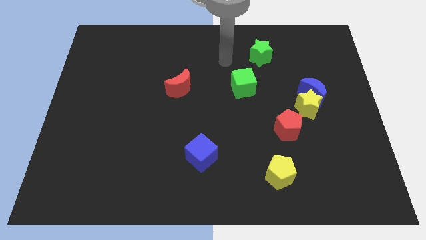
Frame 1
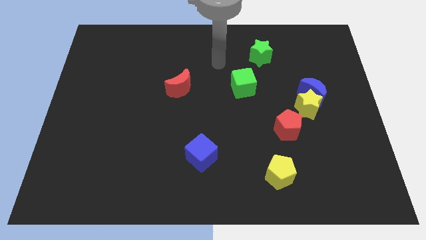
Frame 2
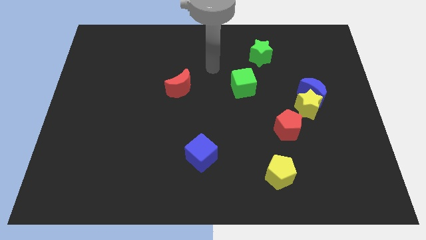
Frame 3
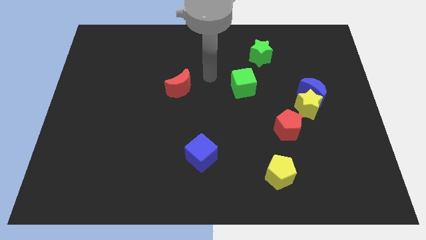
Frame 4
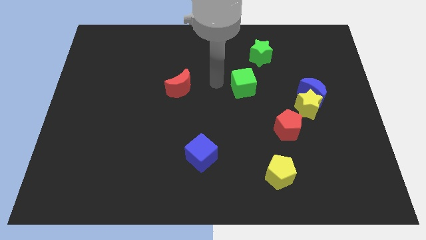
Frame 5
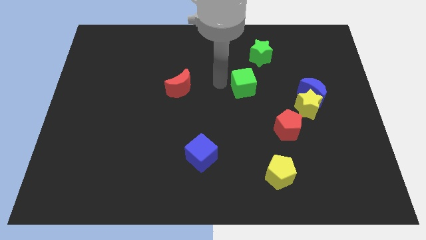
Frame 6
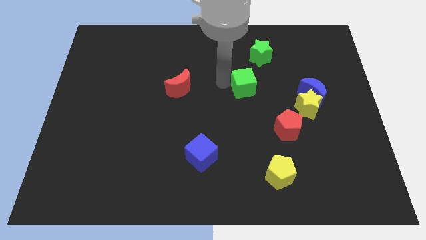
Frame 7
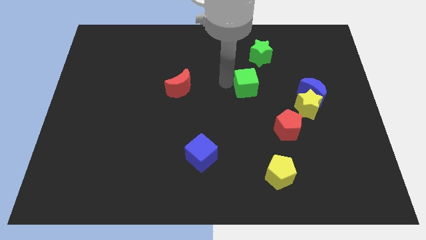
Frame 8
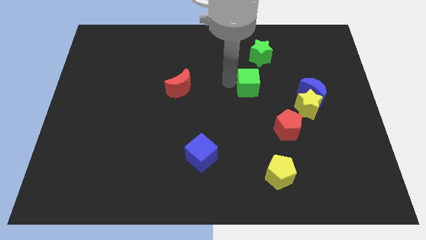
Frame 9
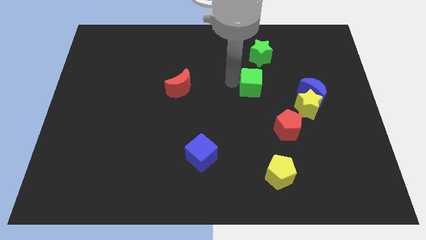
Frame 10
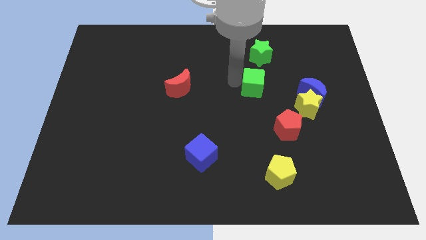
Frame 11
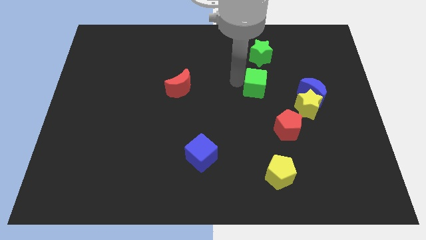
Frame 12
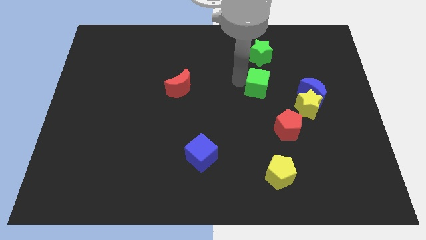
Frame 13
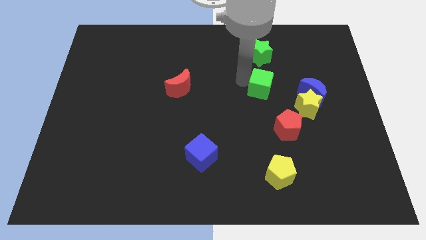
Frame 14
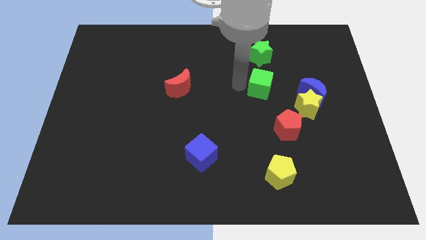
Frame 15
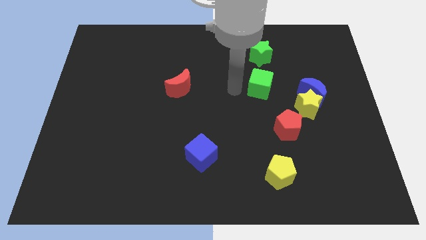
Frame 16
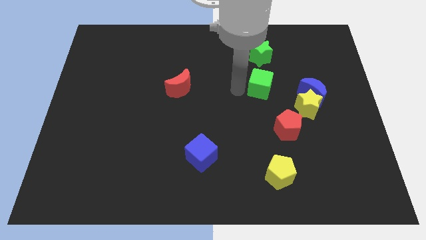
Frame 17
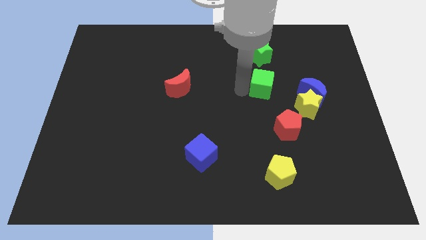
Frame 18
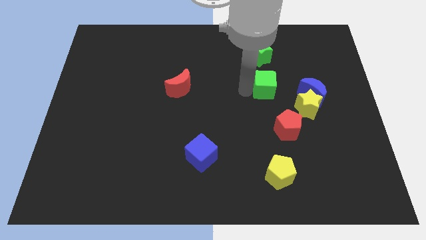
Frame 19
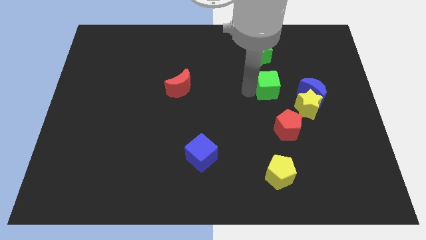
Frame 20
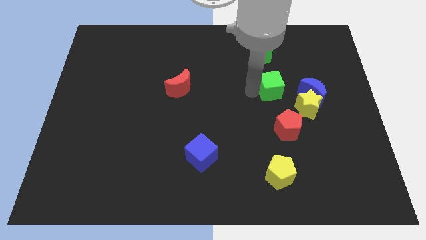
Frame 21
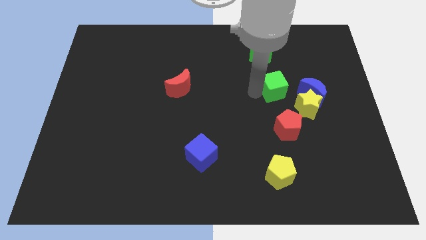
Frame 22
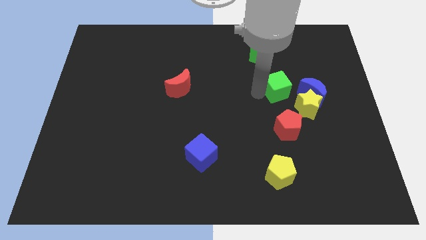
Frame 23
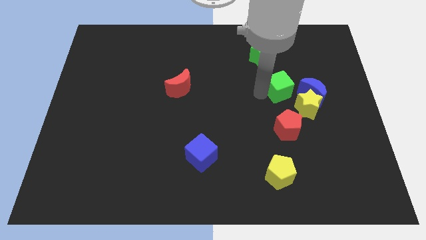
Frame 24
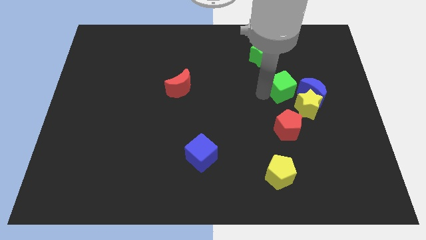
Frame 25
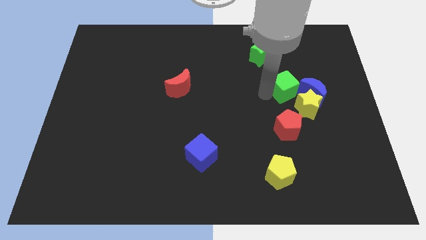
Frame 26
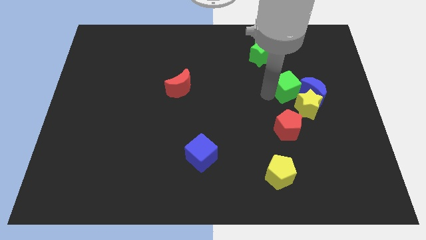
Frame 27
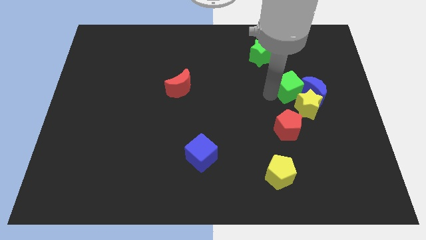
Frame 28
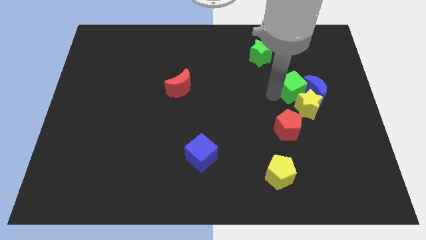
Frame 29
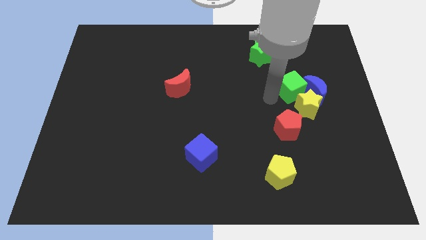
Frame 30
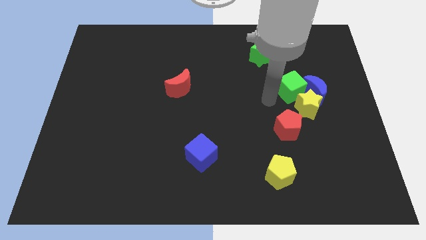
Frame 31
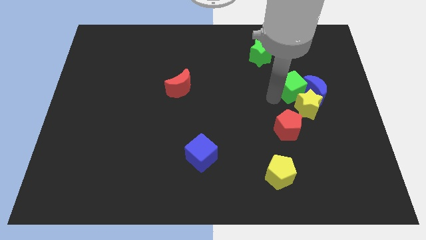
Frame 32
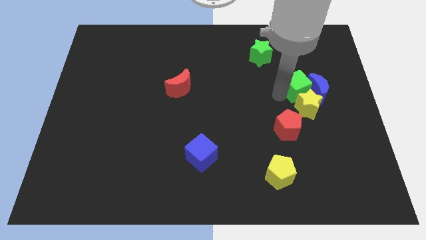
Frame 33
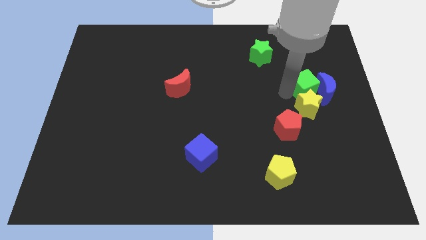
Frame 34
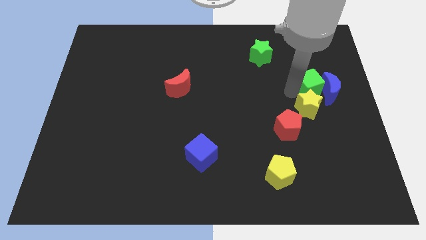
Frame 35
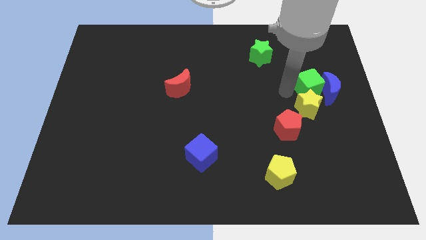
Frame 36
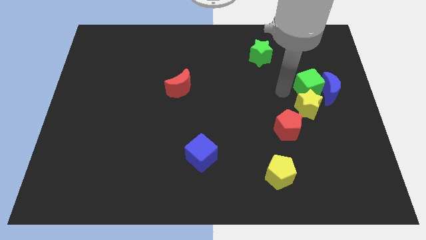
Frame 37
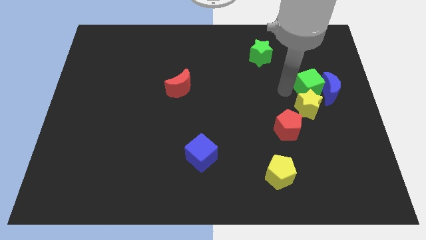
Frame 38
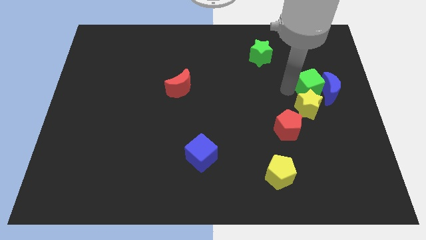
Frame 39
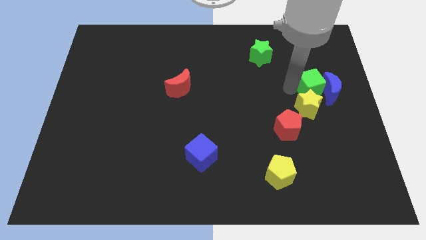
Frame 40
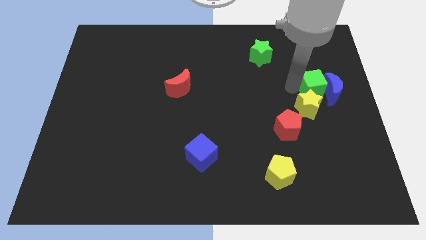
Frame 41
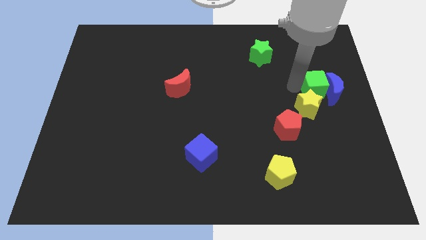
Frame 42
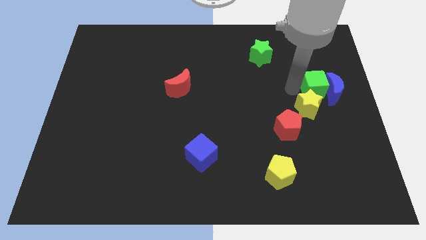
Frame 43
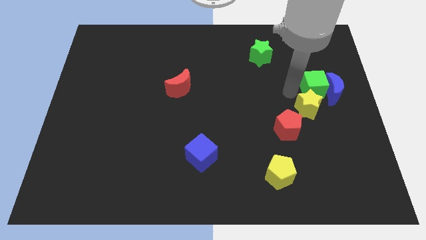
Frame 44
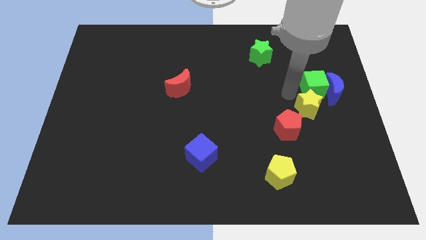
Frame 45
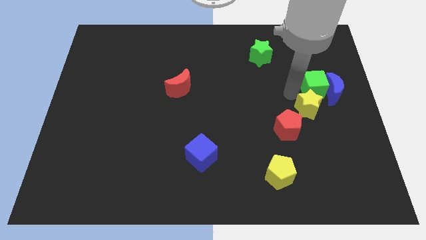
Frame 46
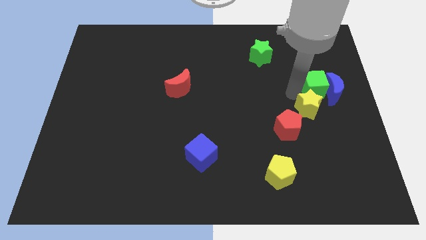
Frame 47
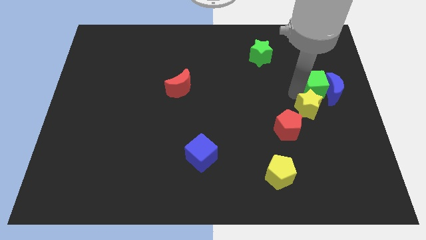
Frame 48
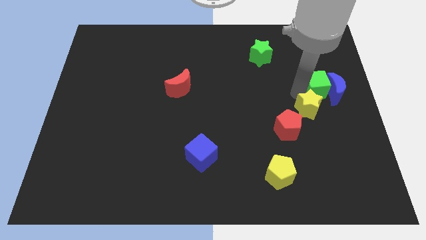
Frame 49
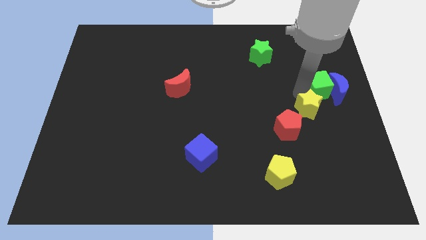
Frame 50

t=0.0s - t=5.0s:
slide the green cube to the center right

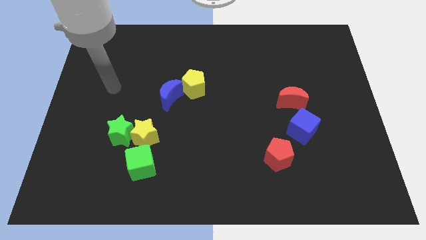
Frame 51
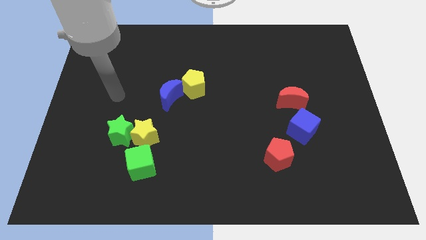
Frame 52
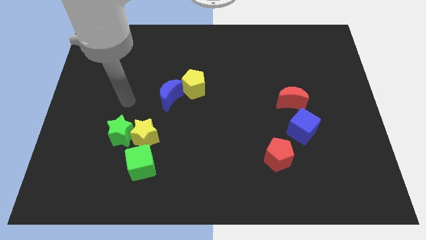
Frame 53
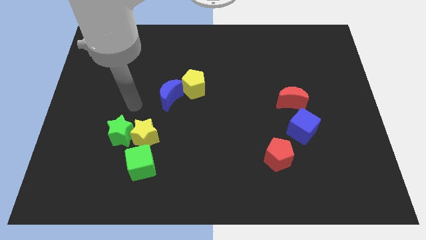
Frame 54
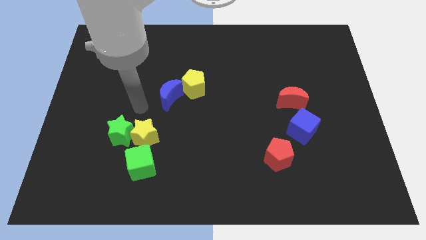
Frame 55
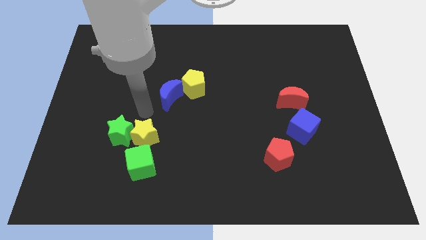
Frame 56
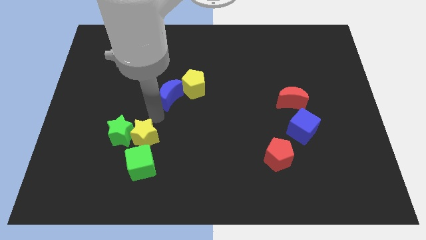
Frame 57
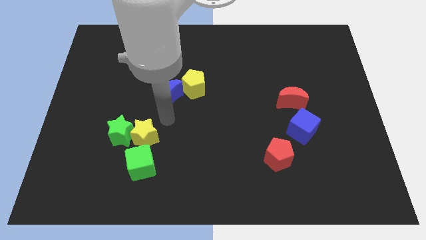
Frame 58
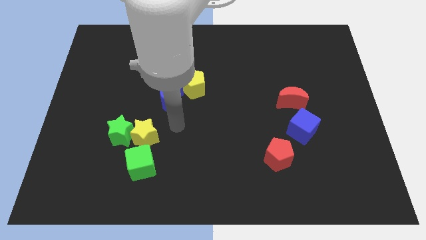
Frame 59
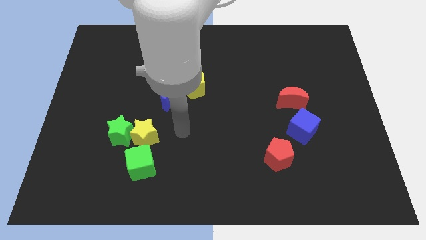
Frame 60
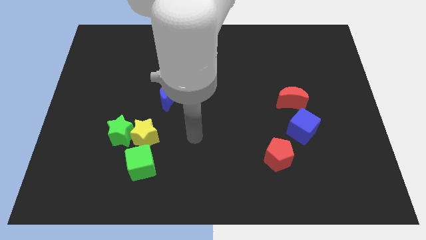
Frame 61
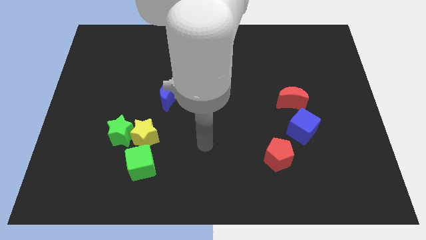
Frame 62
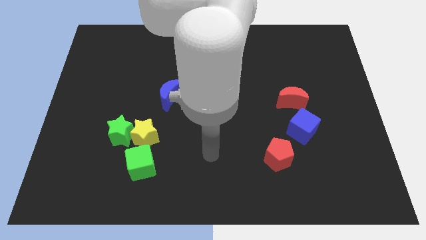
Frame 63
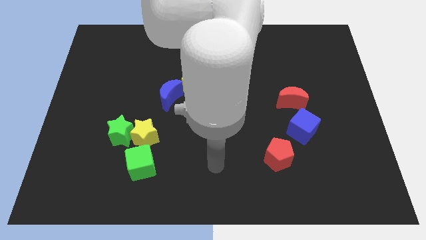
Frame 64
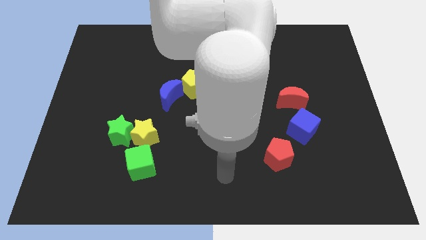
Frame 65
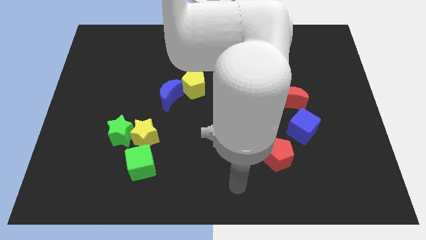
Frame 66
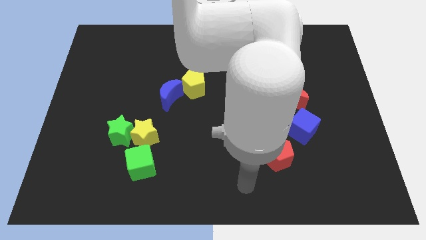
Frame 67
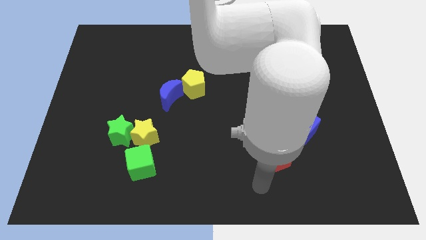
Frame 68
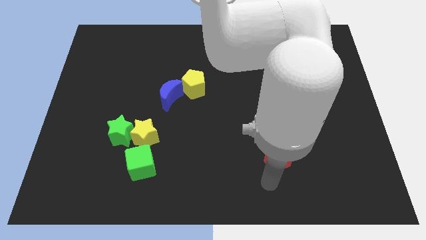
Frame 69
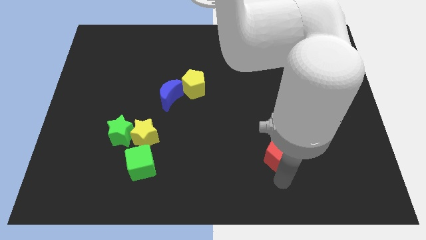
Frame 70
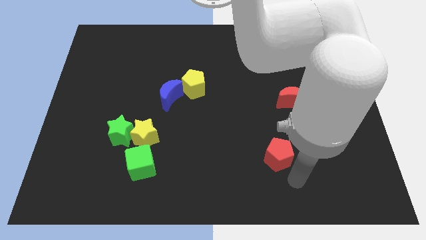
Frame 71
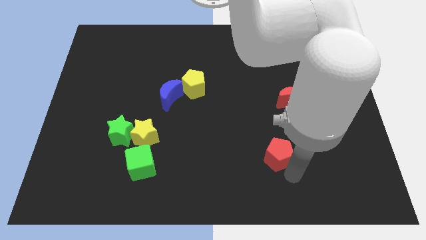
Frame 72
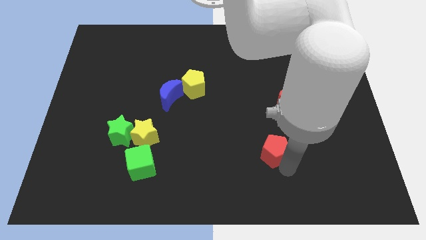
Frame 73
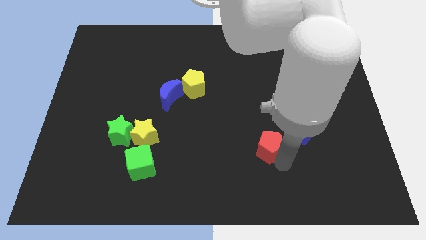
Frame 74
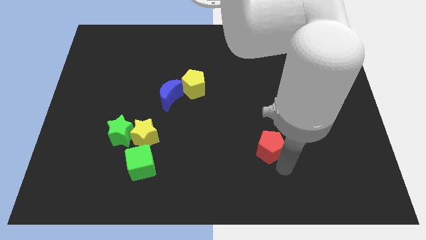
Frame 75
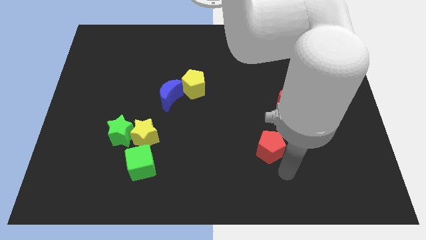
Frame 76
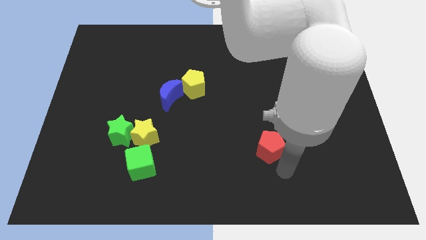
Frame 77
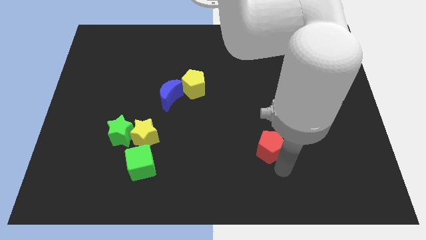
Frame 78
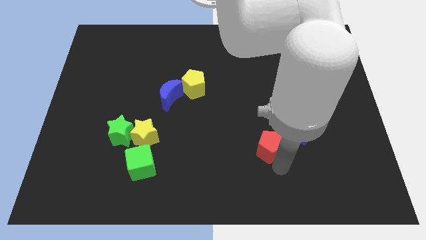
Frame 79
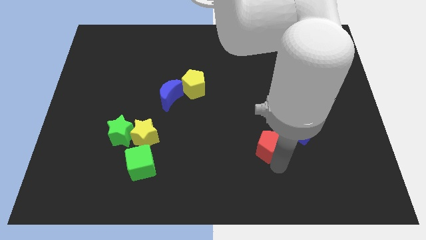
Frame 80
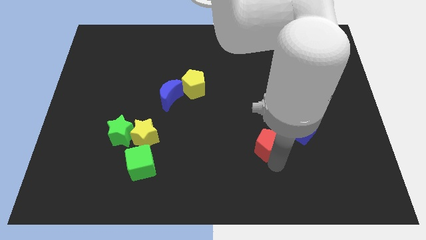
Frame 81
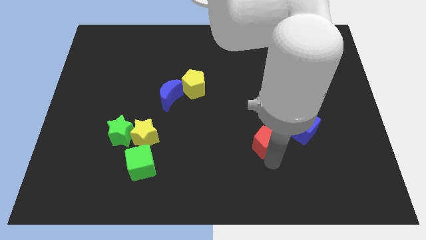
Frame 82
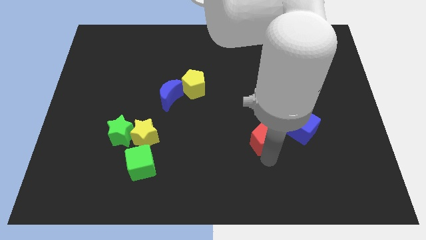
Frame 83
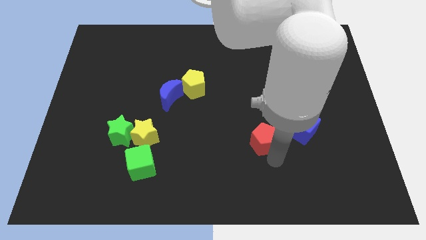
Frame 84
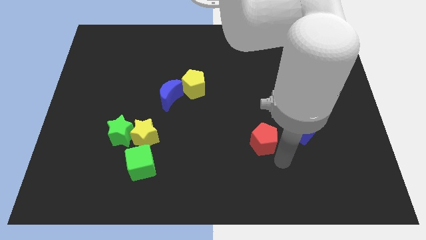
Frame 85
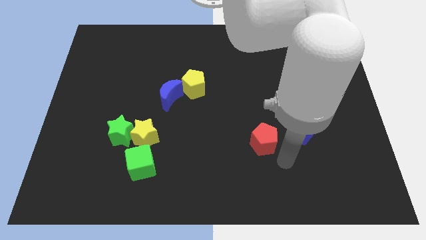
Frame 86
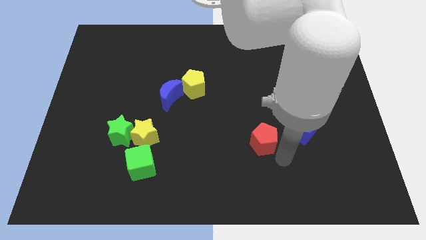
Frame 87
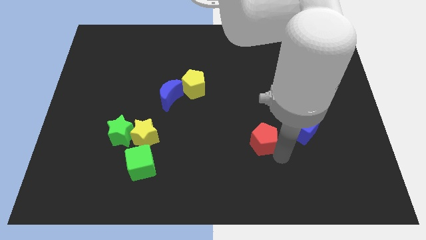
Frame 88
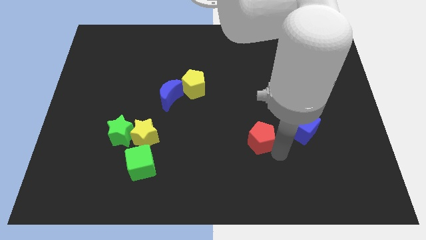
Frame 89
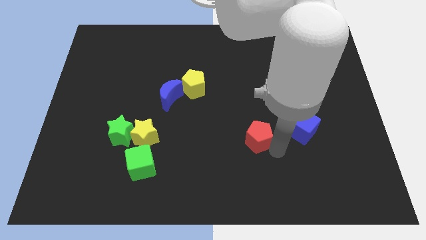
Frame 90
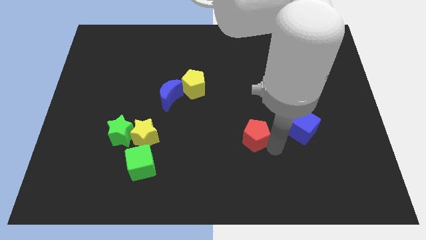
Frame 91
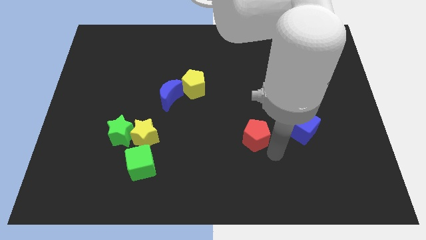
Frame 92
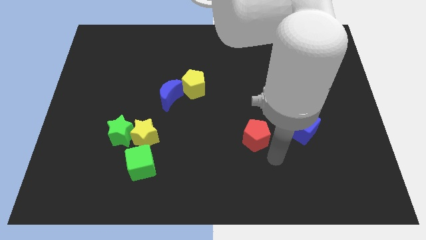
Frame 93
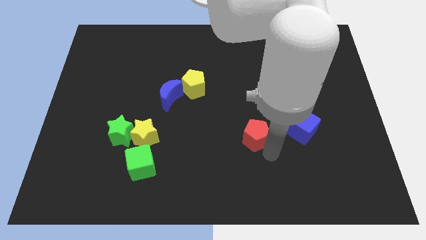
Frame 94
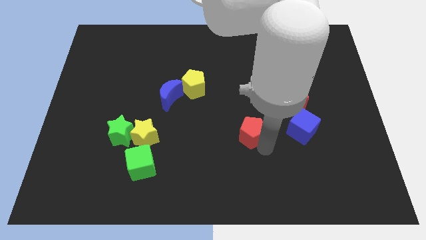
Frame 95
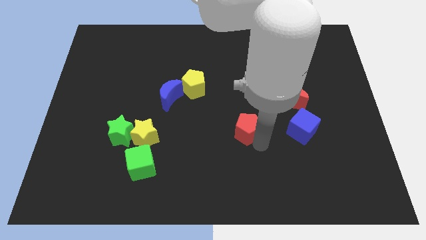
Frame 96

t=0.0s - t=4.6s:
put the red pentagon to the center
